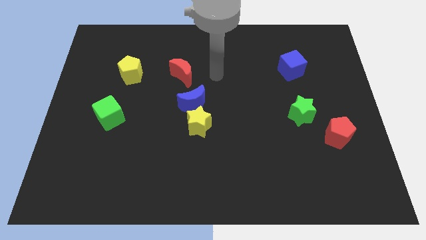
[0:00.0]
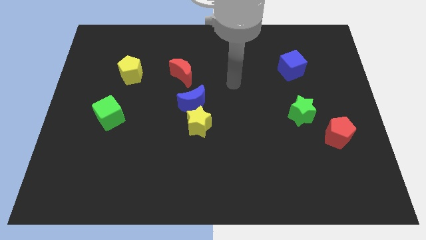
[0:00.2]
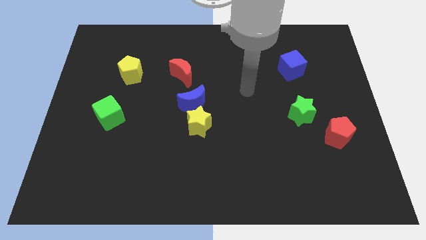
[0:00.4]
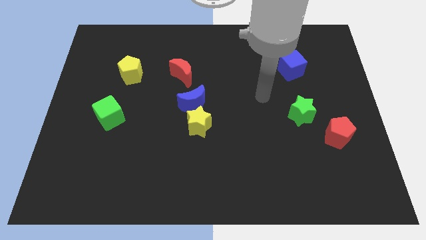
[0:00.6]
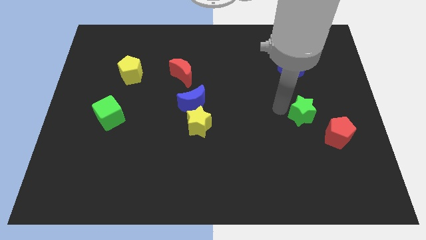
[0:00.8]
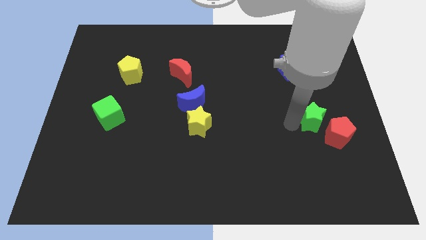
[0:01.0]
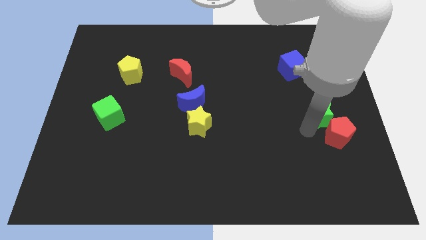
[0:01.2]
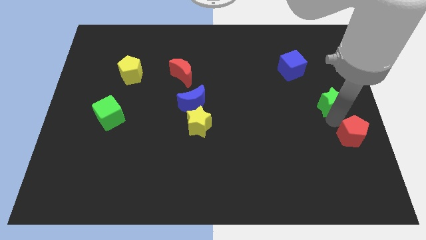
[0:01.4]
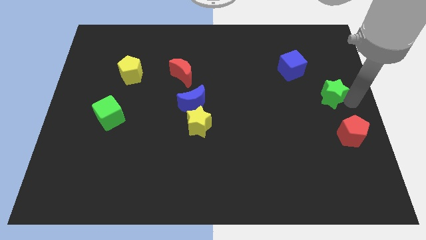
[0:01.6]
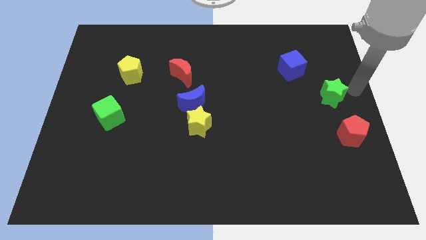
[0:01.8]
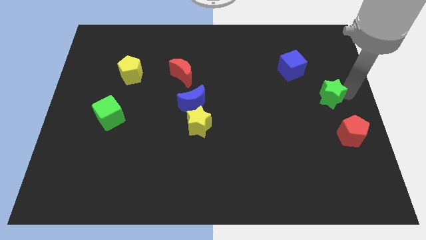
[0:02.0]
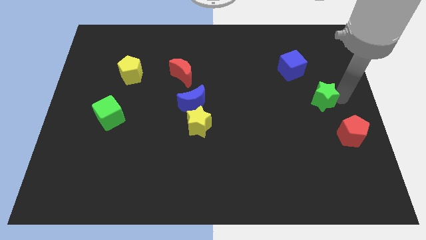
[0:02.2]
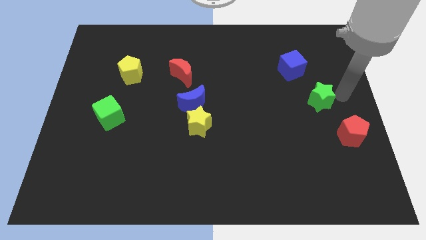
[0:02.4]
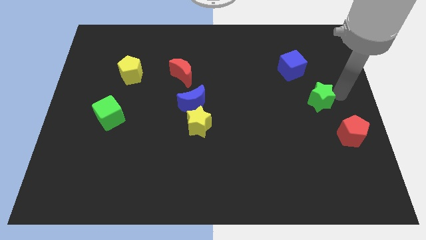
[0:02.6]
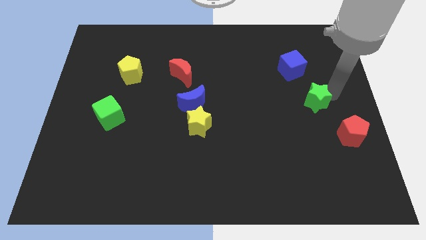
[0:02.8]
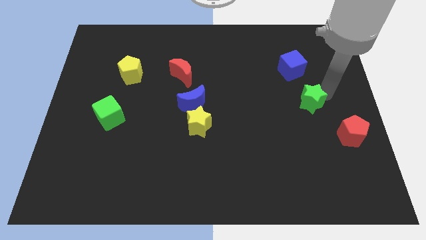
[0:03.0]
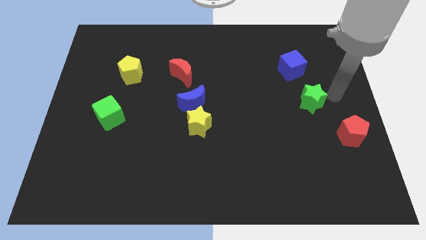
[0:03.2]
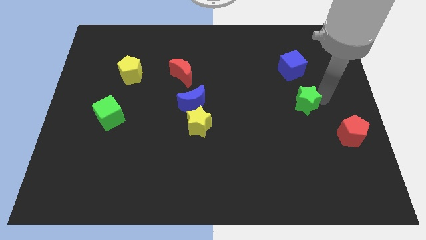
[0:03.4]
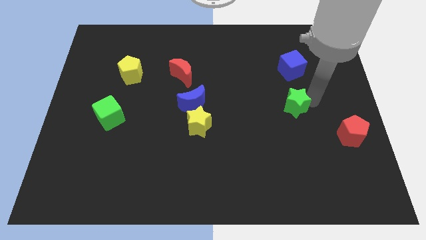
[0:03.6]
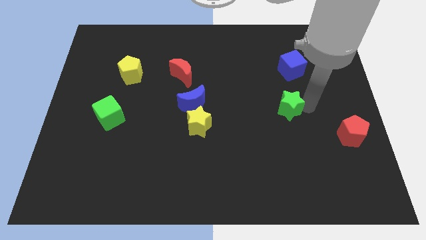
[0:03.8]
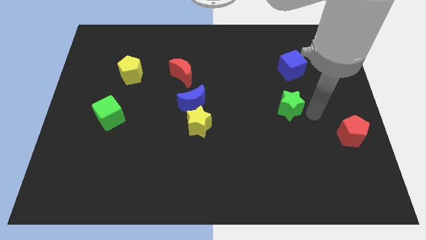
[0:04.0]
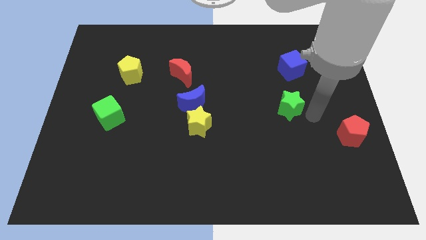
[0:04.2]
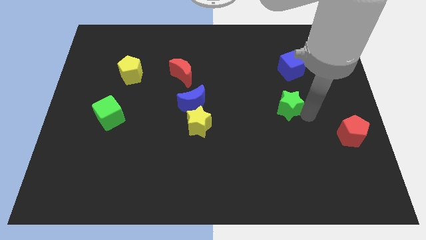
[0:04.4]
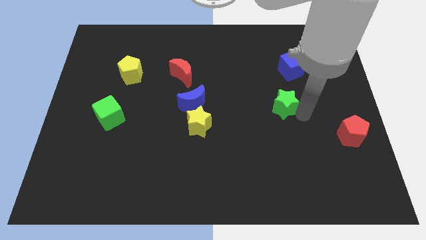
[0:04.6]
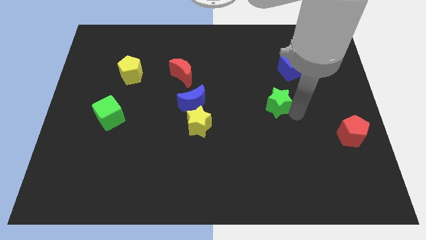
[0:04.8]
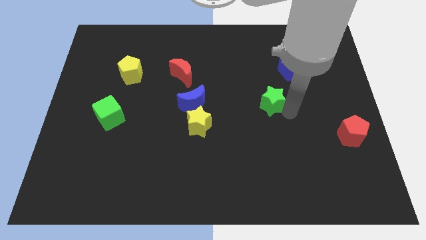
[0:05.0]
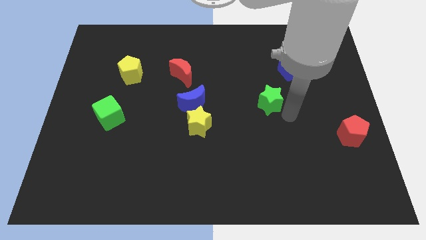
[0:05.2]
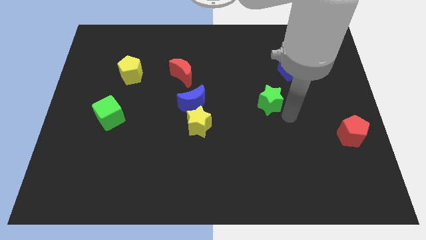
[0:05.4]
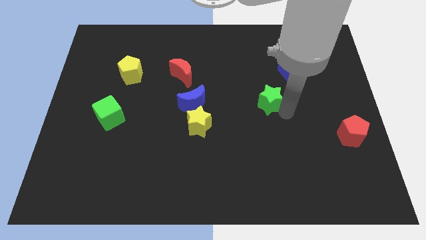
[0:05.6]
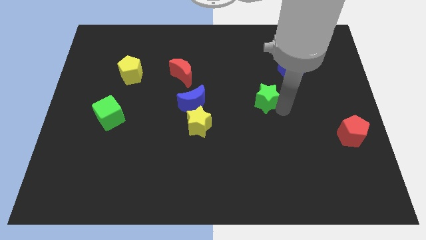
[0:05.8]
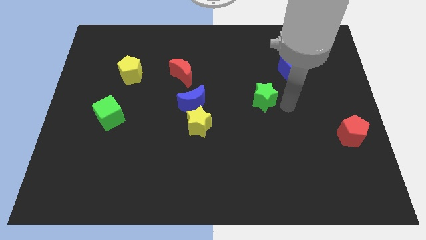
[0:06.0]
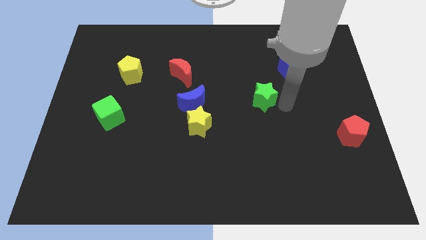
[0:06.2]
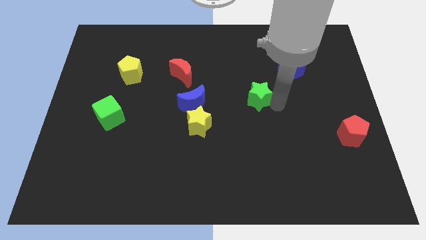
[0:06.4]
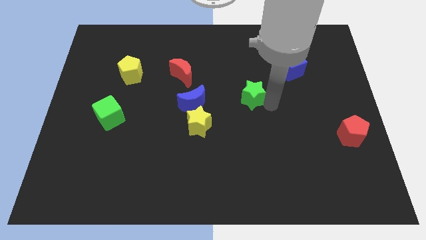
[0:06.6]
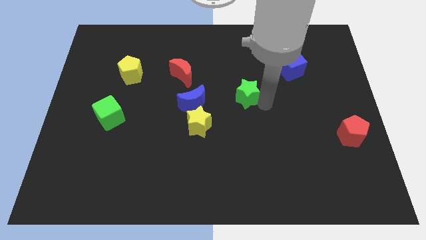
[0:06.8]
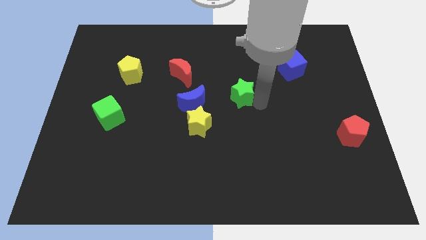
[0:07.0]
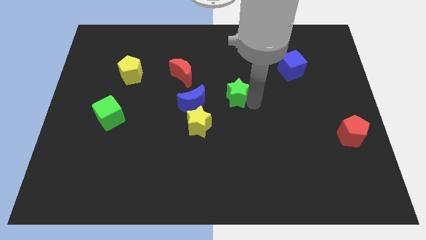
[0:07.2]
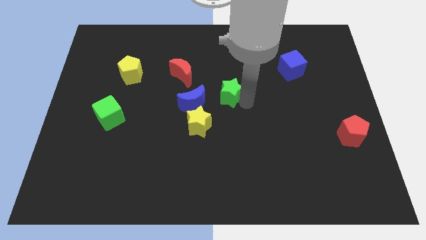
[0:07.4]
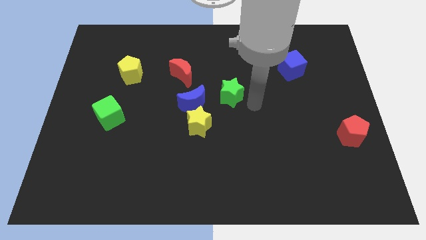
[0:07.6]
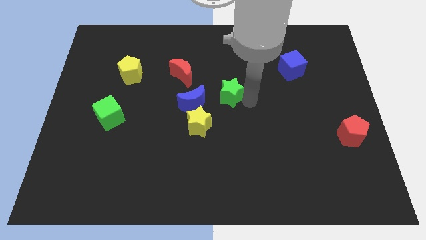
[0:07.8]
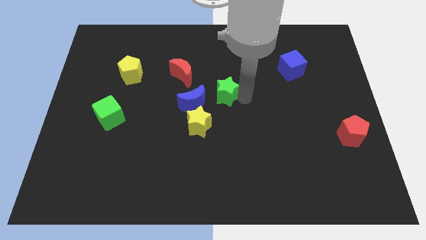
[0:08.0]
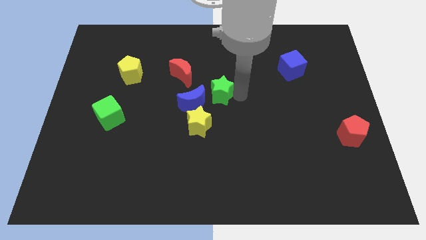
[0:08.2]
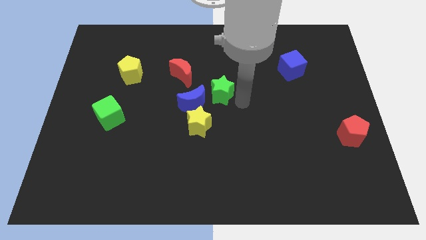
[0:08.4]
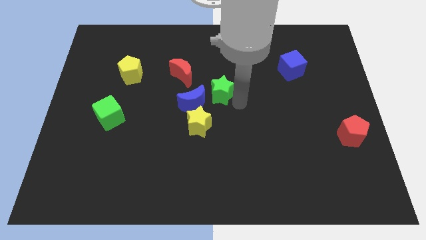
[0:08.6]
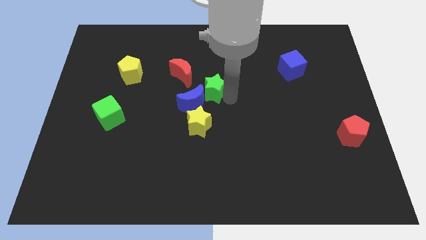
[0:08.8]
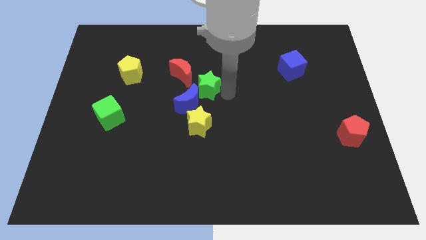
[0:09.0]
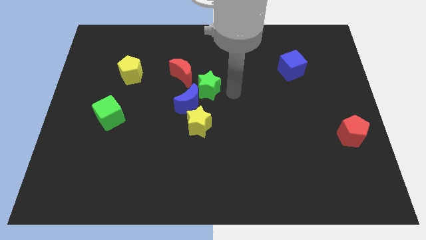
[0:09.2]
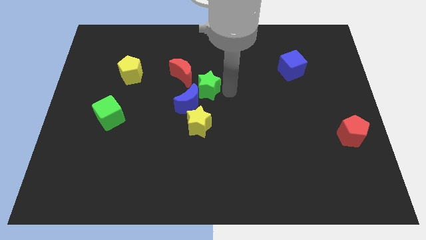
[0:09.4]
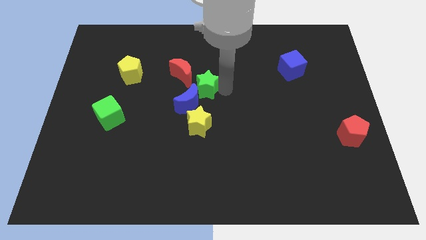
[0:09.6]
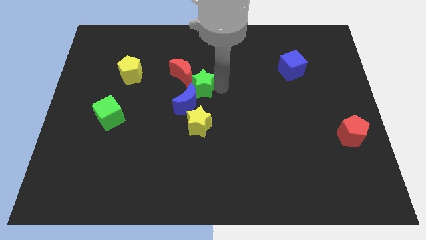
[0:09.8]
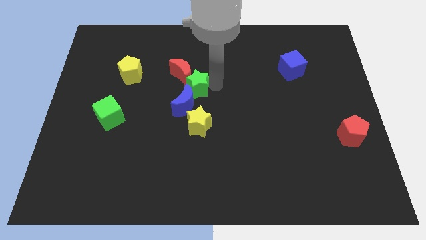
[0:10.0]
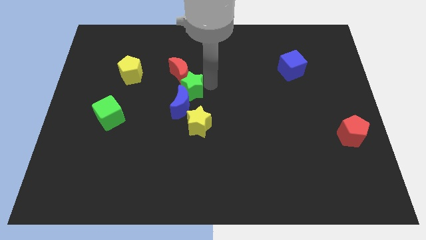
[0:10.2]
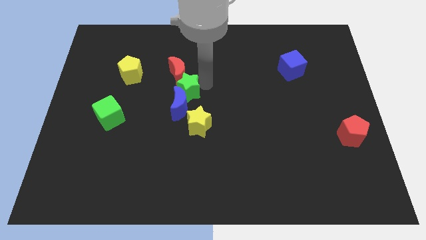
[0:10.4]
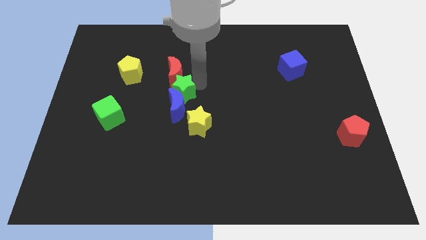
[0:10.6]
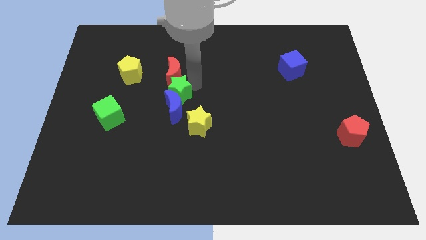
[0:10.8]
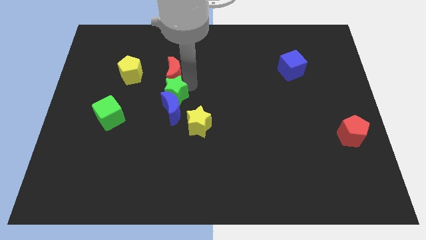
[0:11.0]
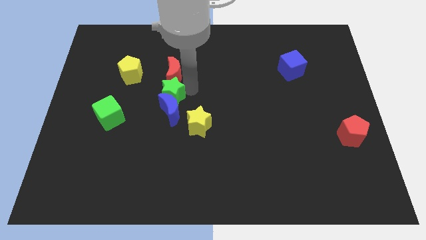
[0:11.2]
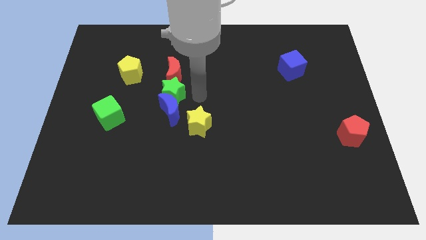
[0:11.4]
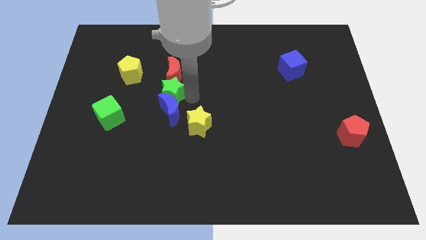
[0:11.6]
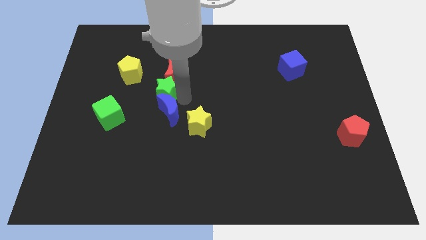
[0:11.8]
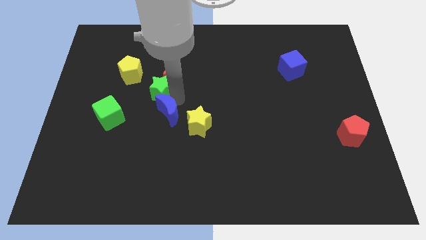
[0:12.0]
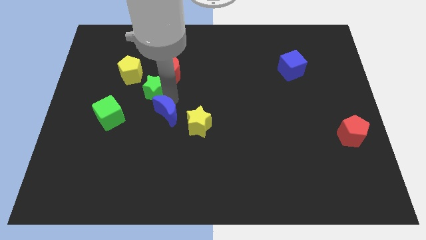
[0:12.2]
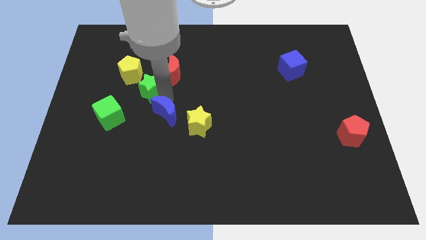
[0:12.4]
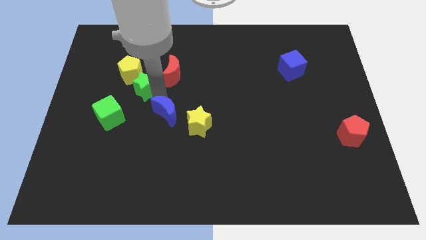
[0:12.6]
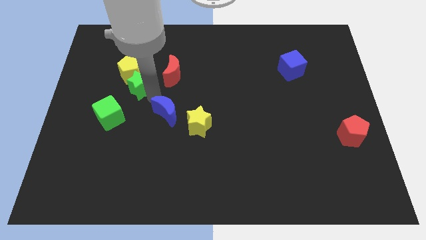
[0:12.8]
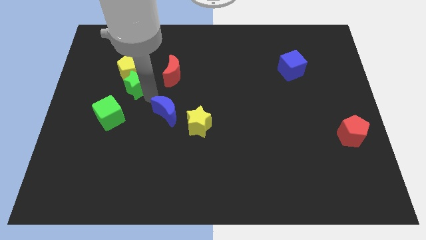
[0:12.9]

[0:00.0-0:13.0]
put the green star to the top side of the green cube

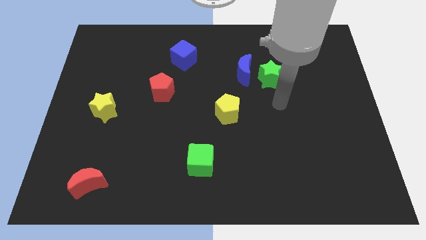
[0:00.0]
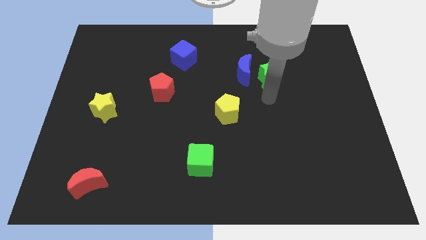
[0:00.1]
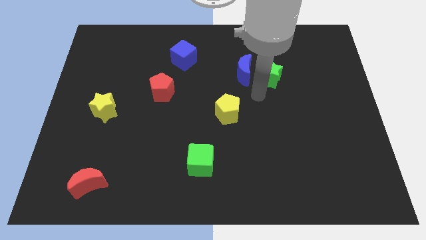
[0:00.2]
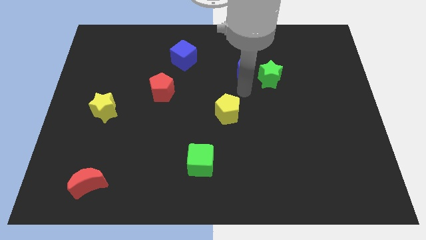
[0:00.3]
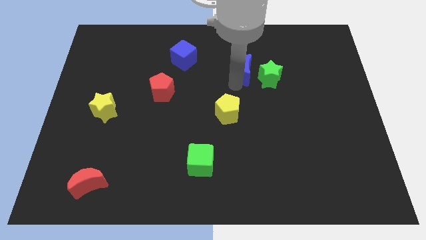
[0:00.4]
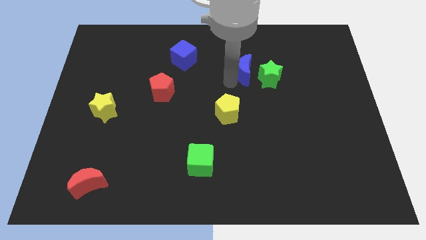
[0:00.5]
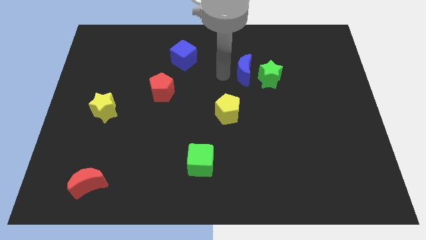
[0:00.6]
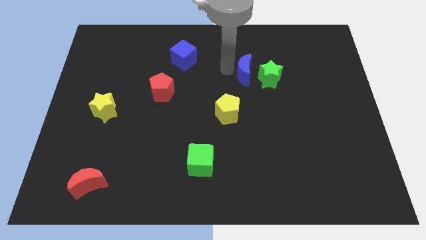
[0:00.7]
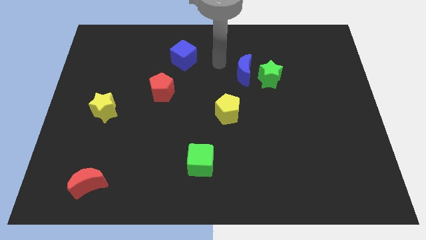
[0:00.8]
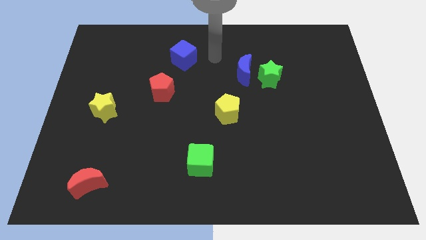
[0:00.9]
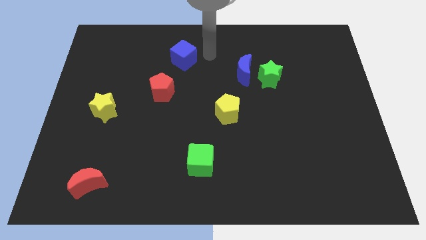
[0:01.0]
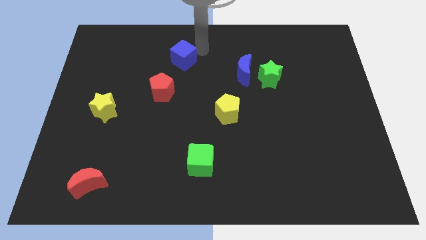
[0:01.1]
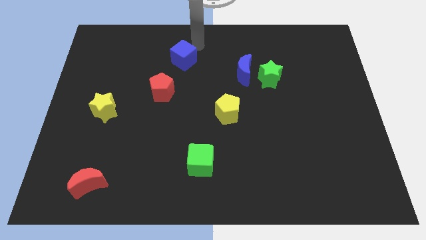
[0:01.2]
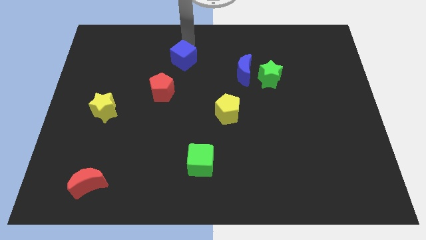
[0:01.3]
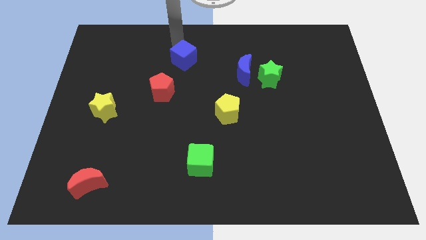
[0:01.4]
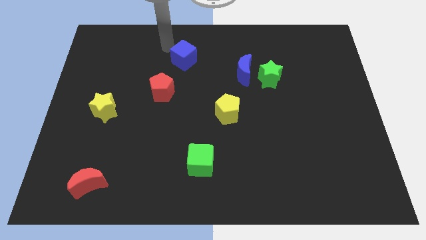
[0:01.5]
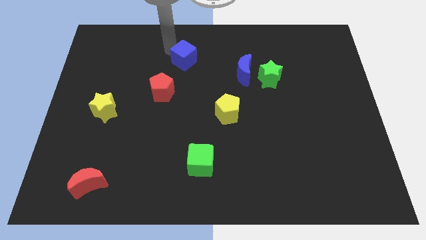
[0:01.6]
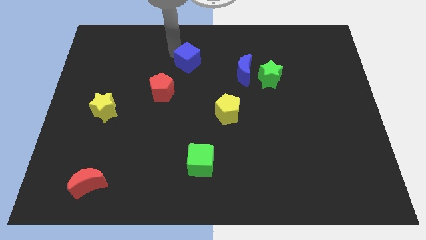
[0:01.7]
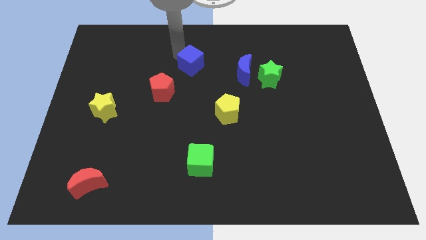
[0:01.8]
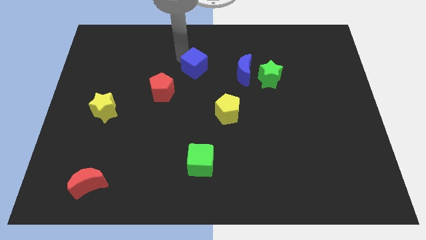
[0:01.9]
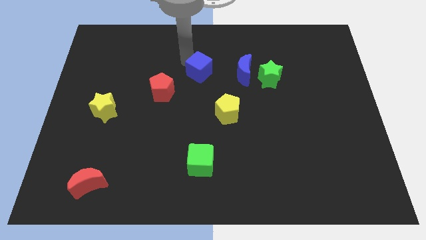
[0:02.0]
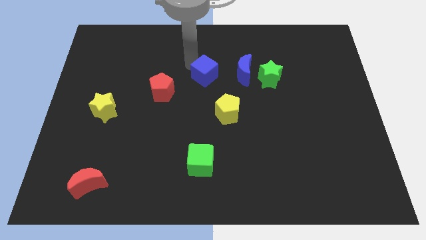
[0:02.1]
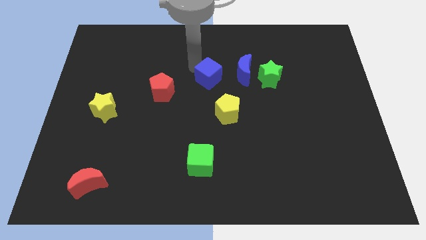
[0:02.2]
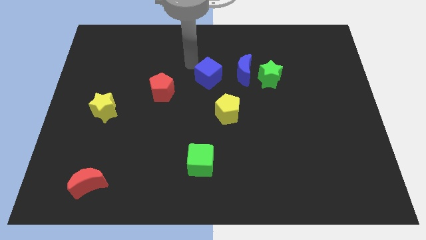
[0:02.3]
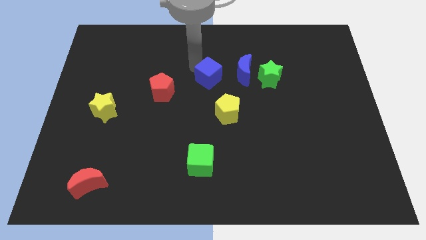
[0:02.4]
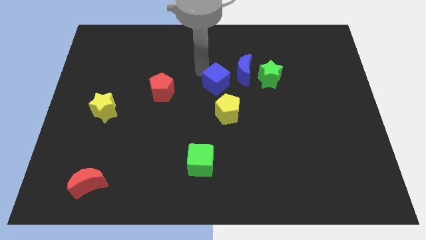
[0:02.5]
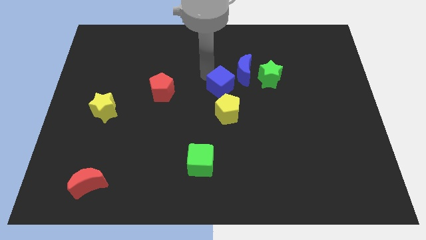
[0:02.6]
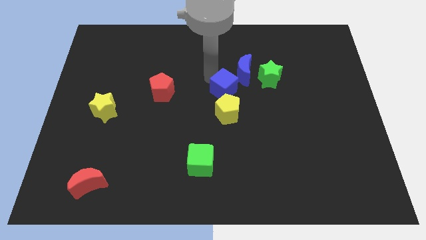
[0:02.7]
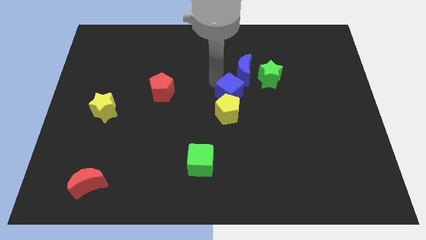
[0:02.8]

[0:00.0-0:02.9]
move the blue cube to the bottom of the blue moon
